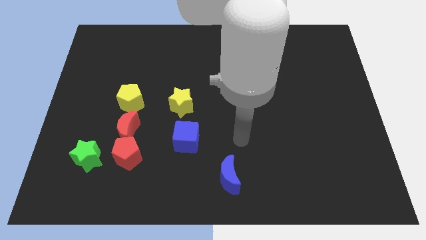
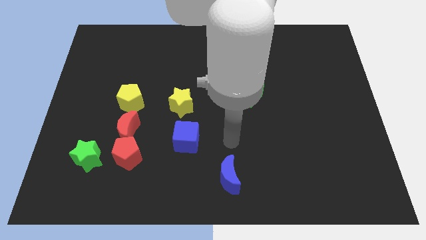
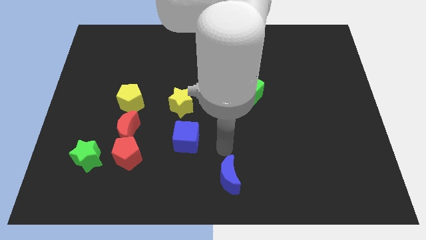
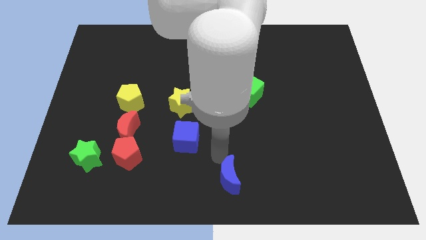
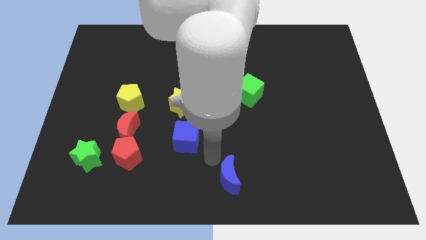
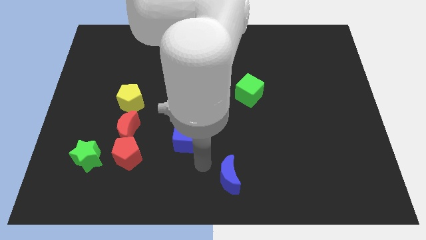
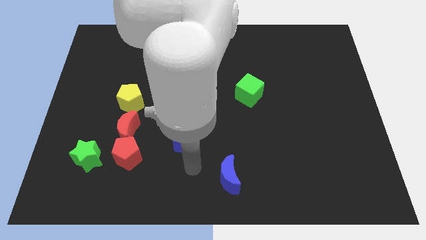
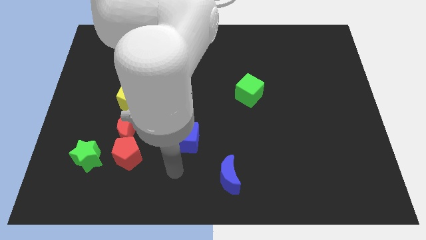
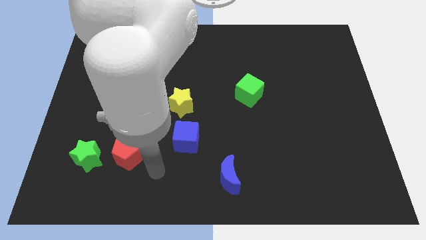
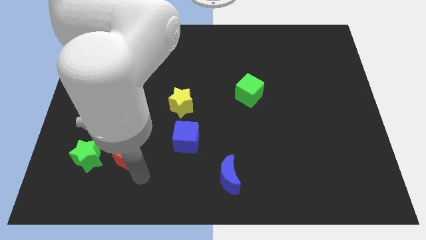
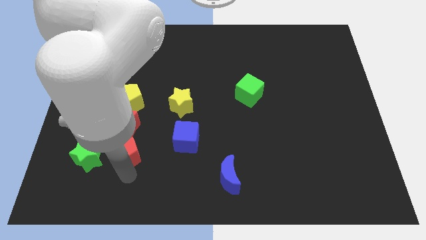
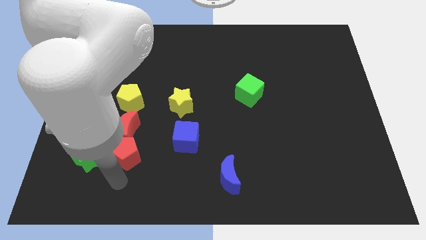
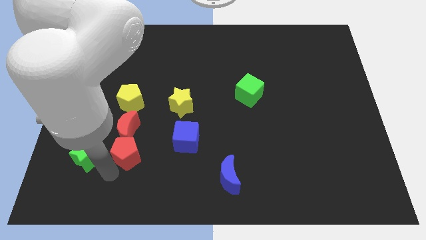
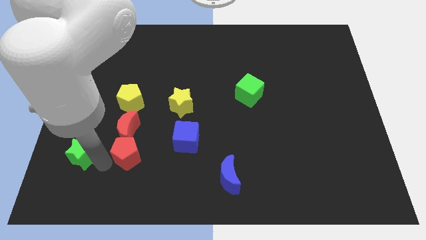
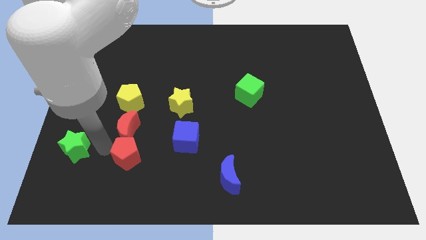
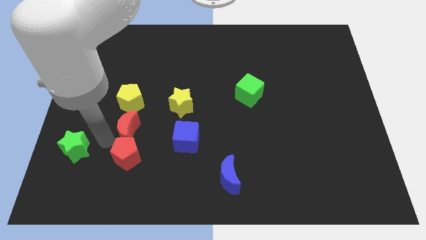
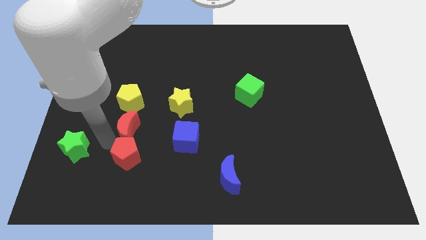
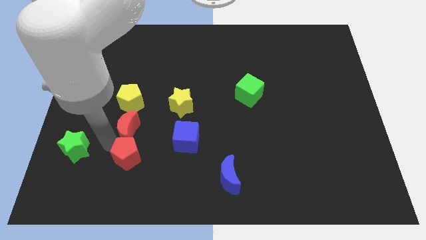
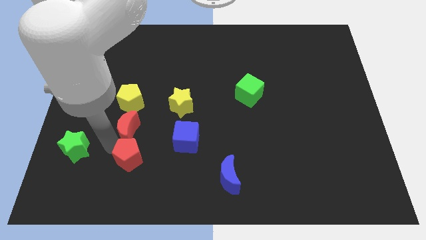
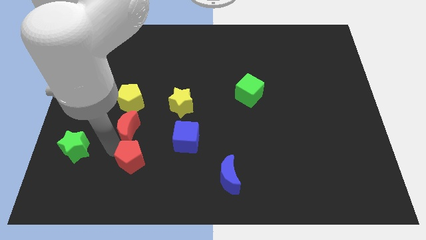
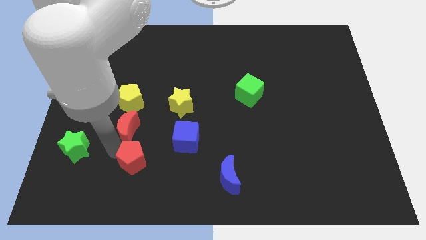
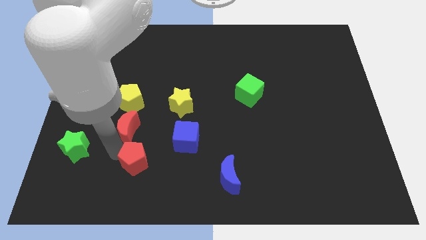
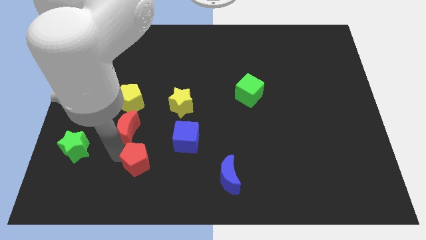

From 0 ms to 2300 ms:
pull the red pentagon apart from the red moon and green star

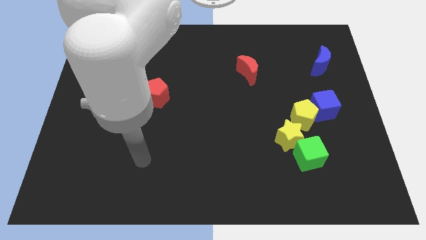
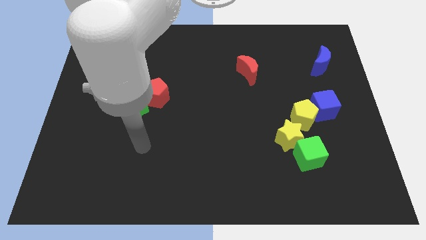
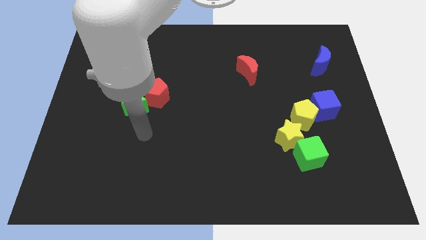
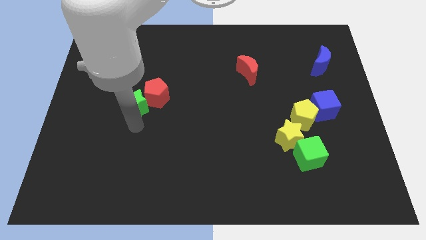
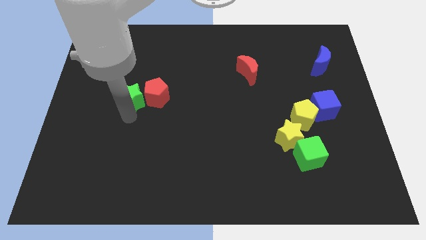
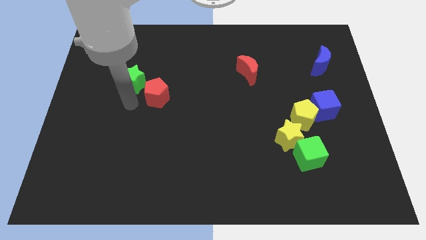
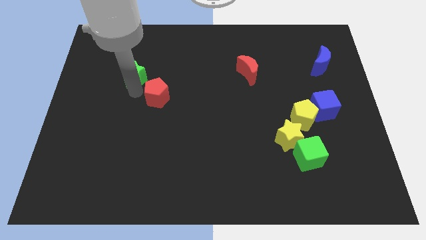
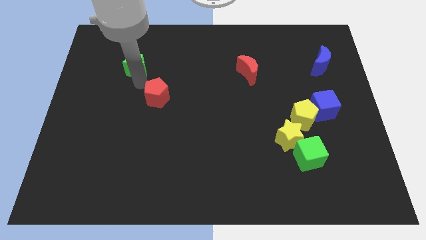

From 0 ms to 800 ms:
pull the red pentagon apart from the green star

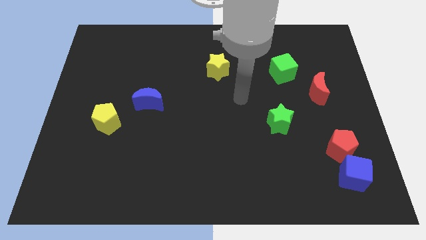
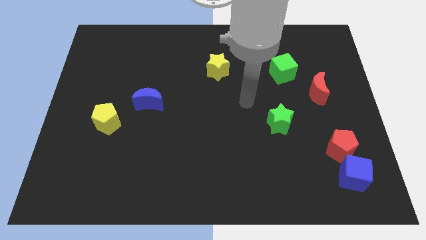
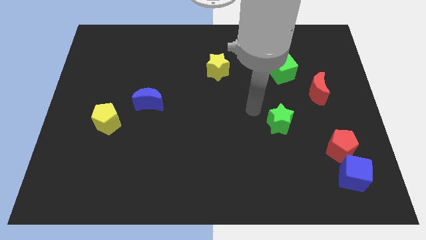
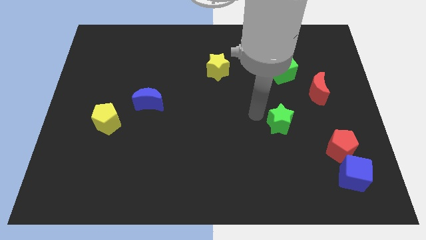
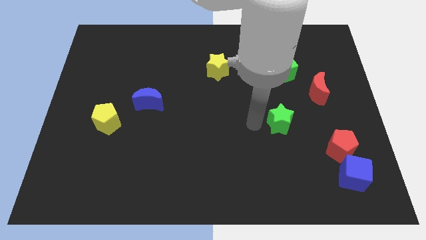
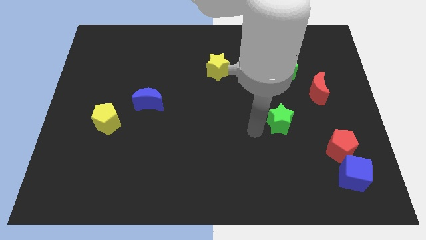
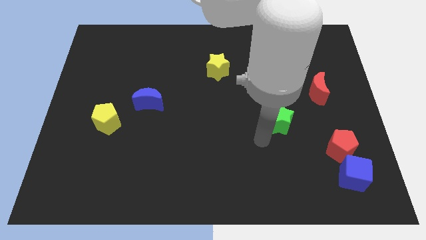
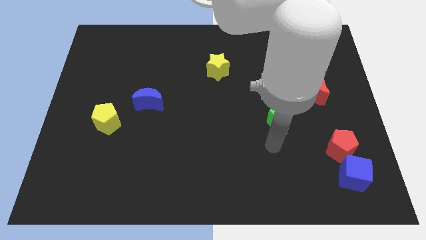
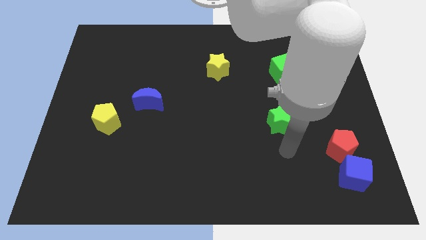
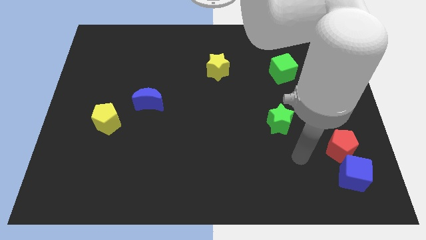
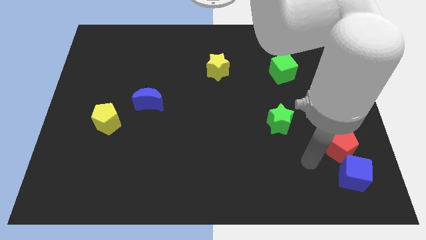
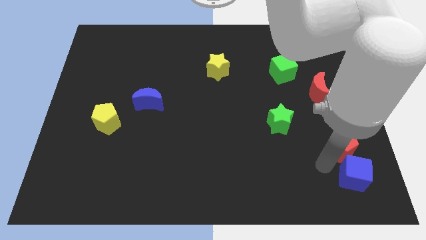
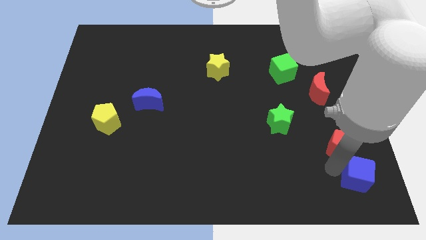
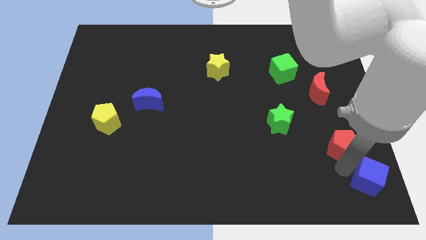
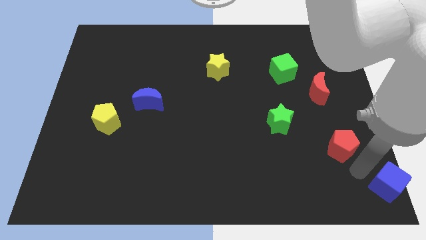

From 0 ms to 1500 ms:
pull the red pentagon apart from the blue cube

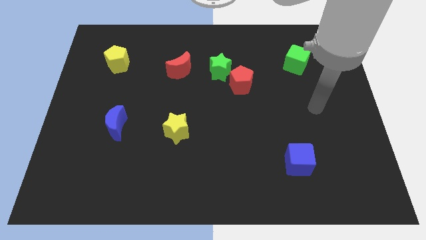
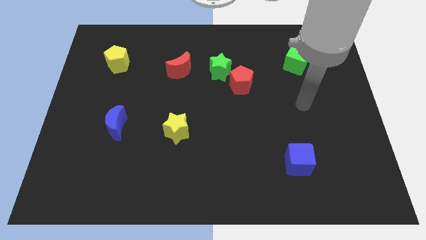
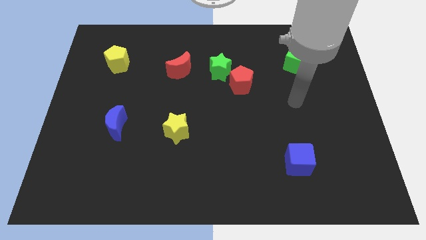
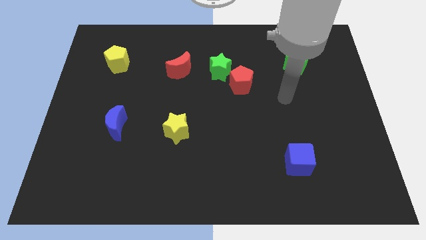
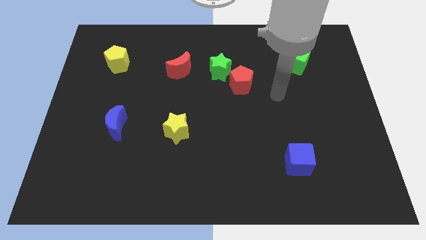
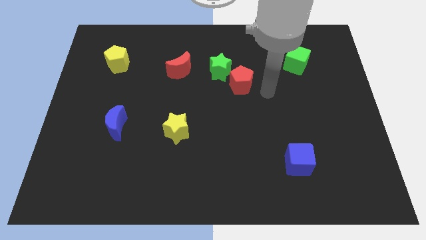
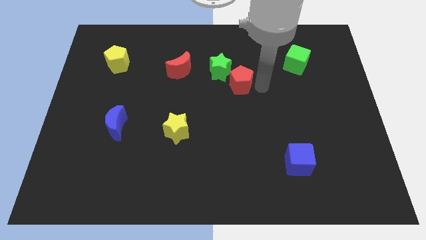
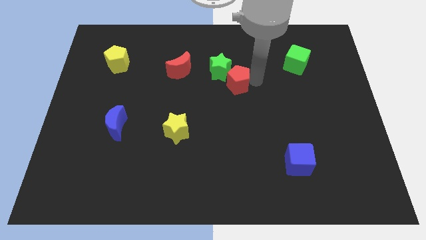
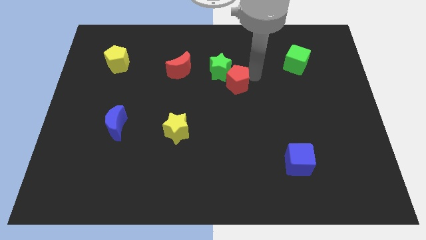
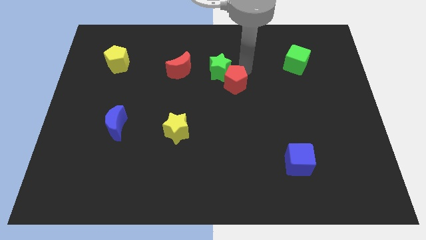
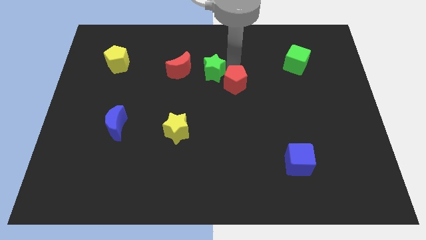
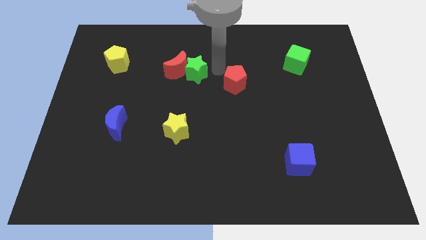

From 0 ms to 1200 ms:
move the red pentagon away from the green star

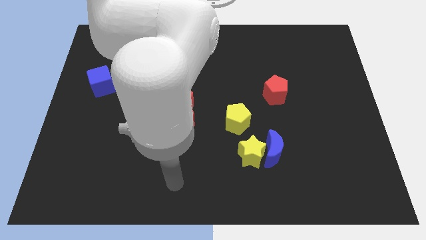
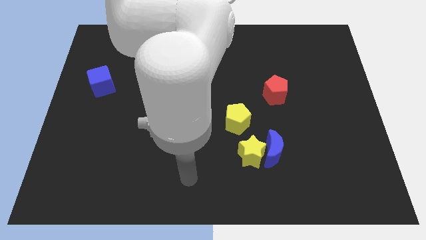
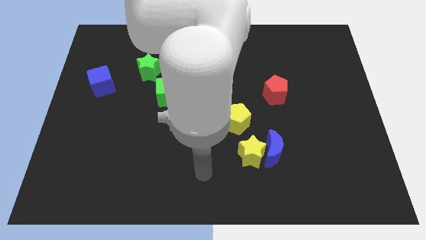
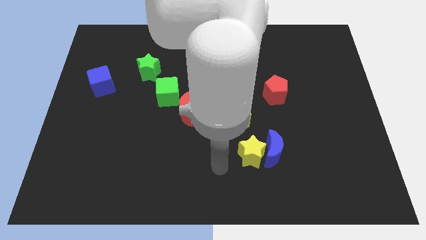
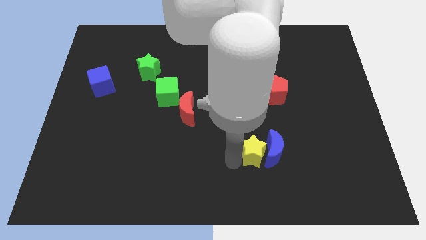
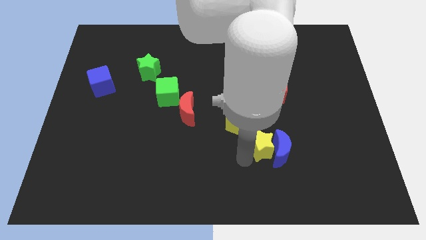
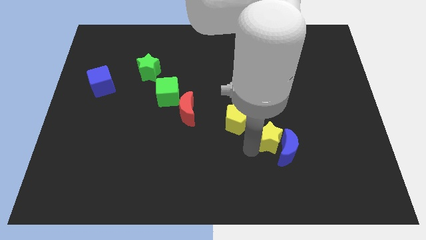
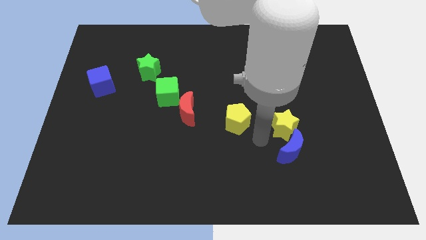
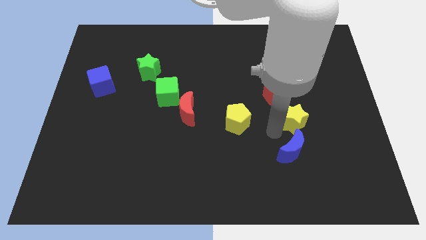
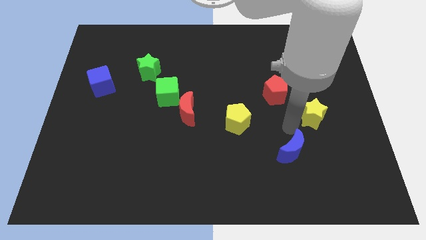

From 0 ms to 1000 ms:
separate the blue moon from the yellow star

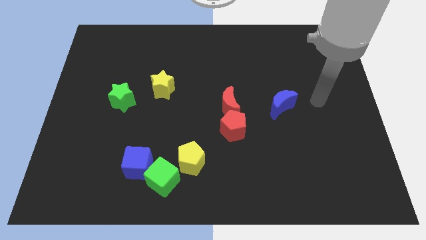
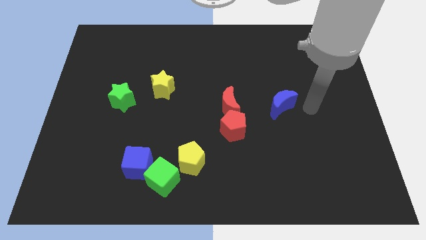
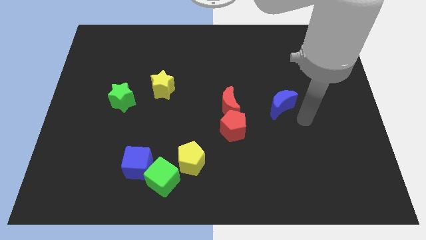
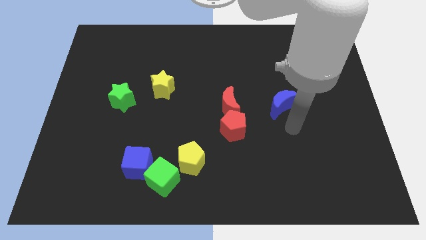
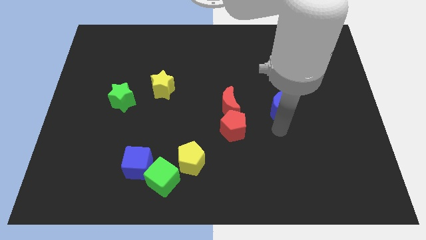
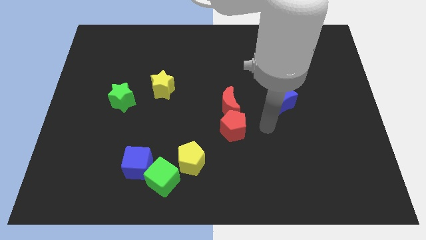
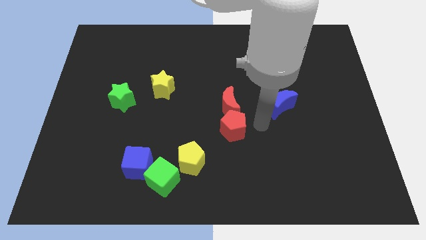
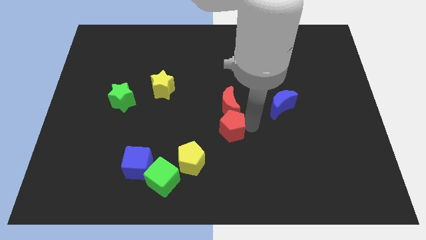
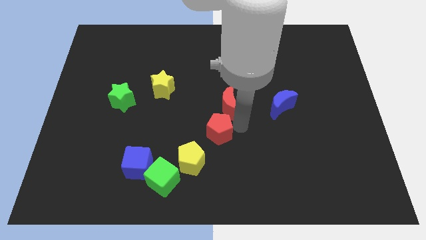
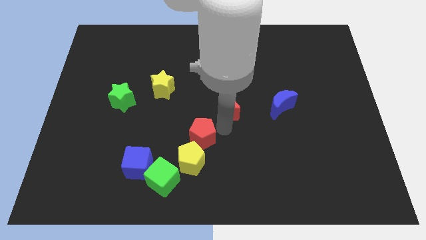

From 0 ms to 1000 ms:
pull the red moon apart from the red pentagon

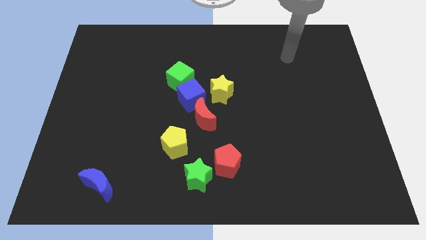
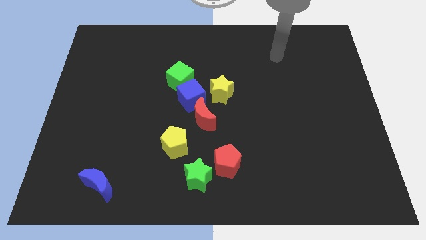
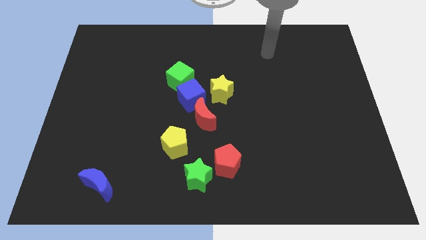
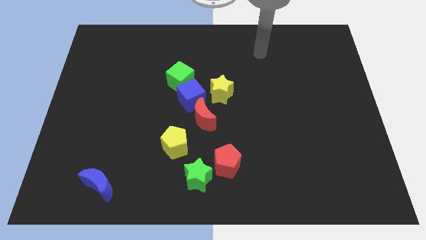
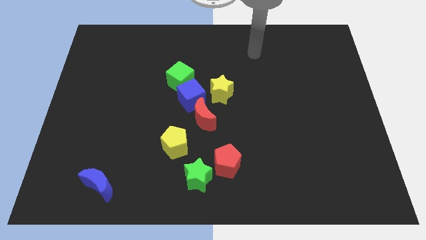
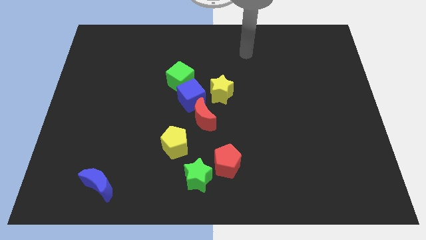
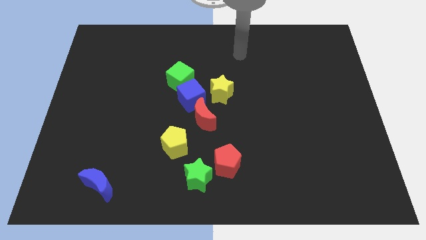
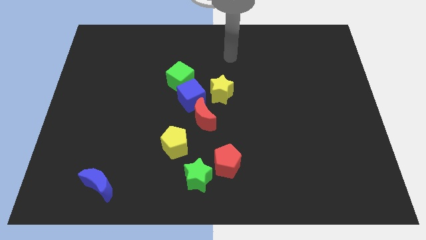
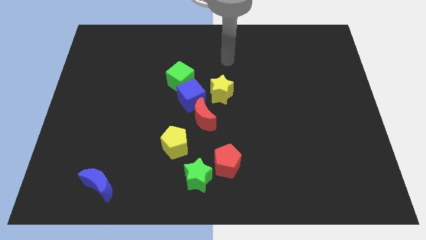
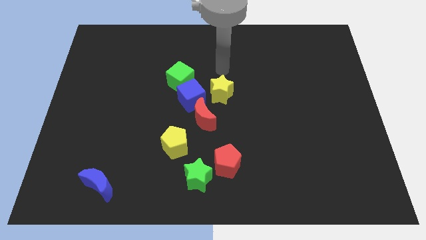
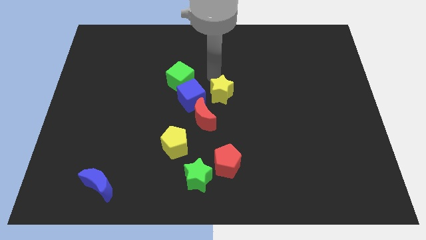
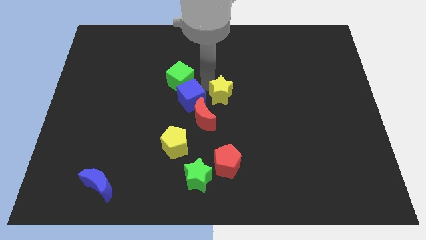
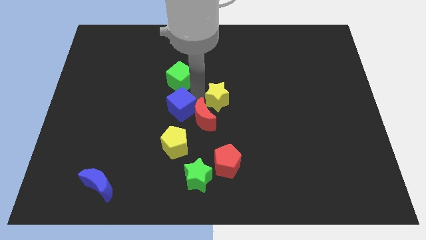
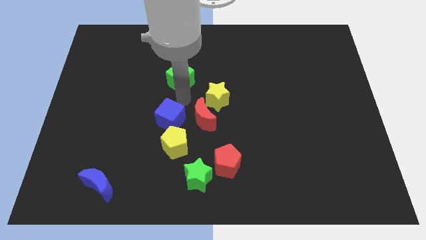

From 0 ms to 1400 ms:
separate the green cube from the blue cube

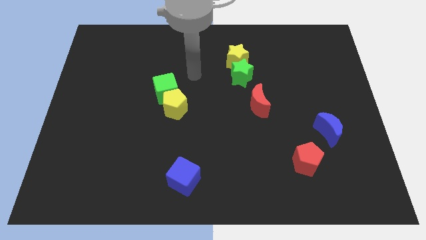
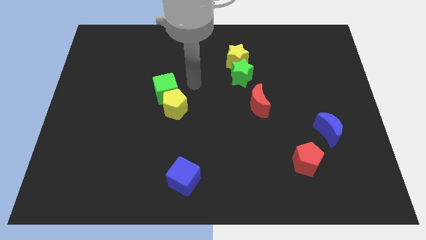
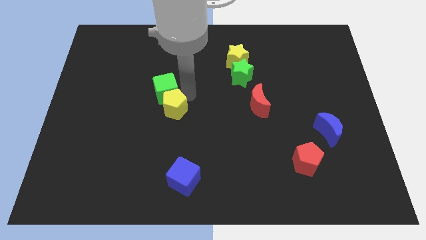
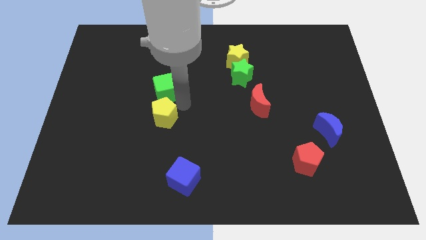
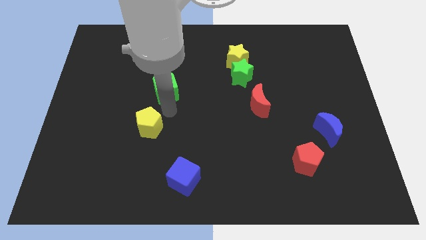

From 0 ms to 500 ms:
move the green cube away from the yellow pentagon
